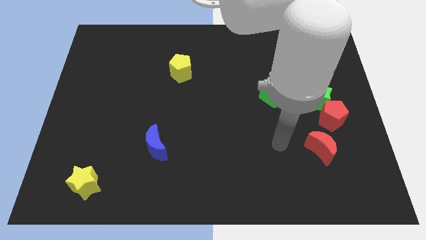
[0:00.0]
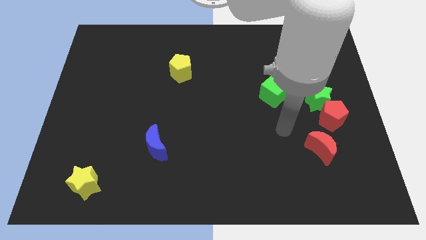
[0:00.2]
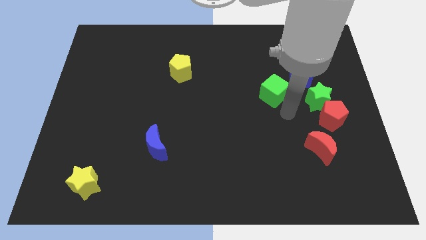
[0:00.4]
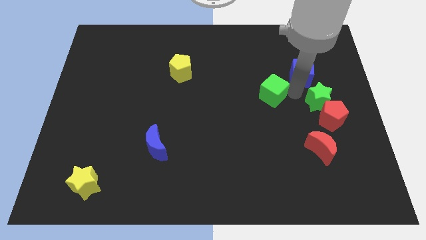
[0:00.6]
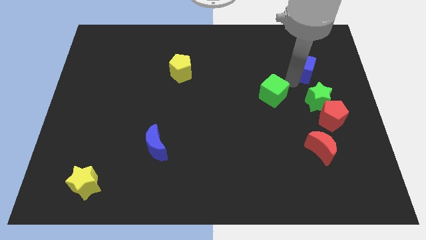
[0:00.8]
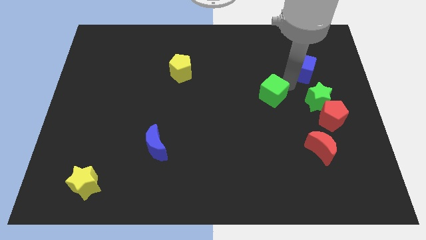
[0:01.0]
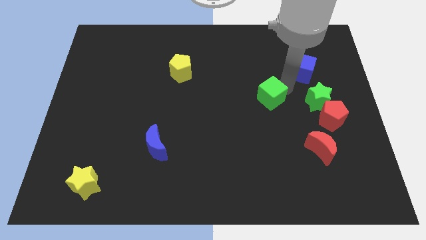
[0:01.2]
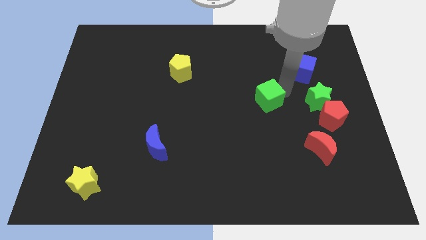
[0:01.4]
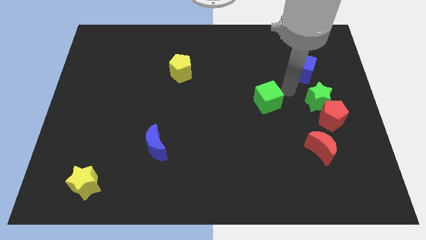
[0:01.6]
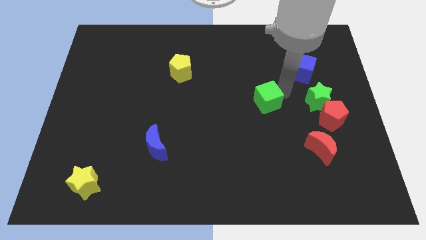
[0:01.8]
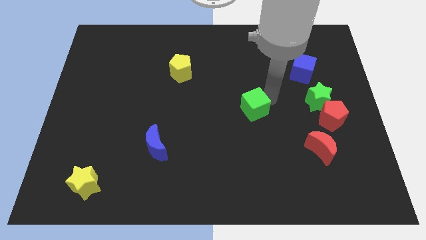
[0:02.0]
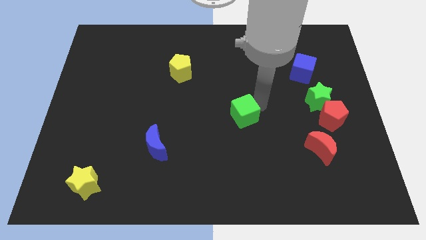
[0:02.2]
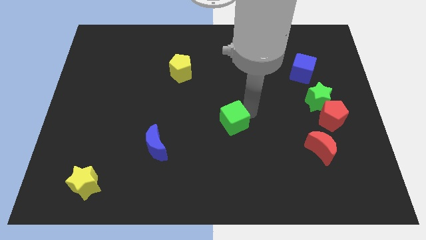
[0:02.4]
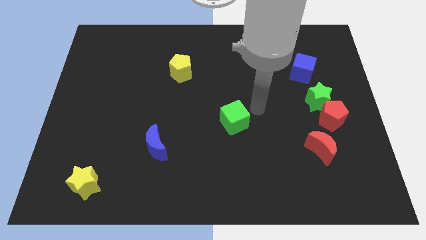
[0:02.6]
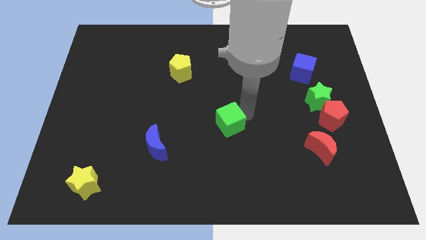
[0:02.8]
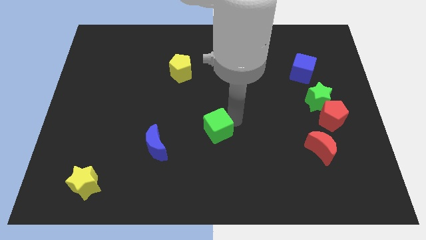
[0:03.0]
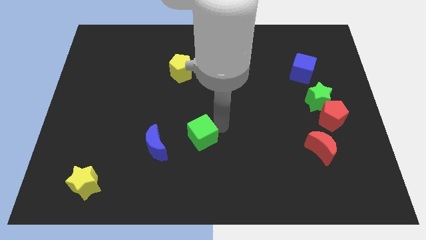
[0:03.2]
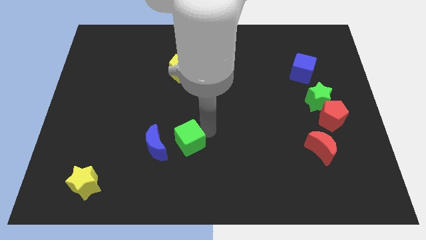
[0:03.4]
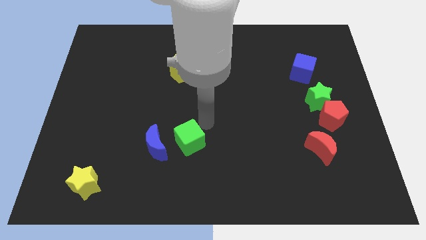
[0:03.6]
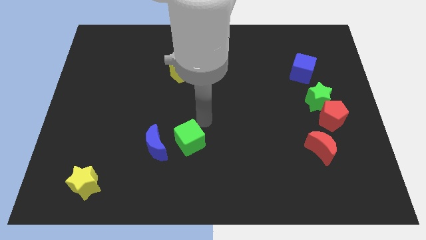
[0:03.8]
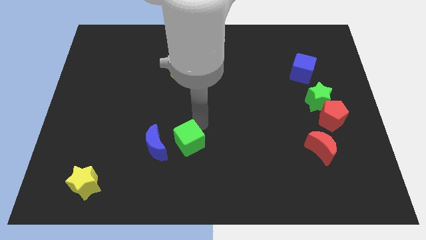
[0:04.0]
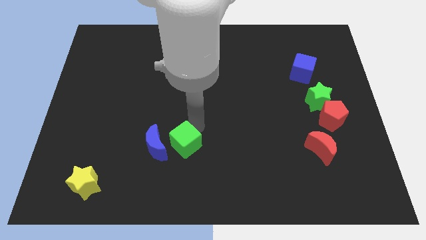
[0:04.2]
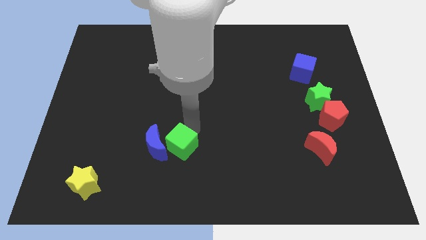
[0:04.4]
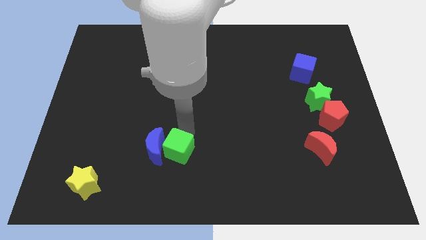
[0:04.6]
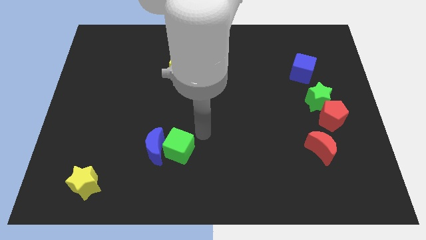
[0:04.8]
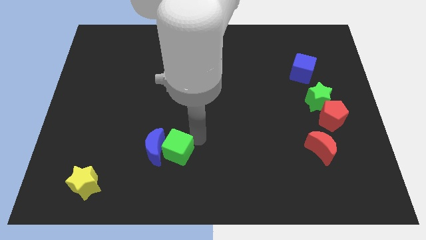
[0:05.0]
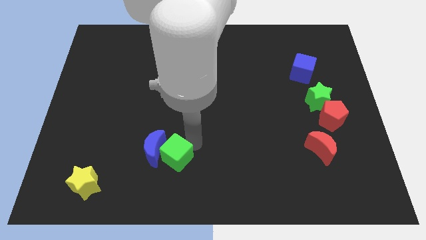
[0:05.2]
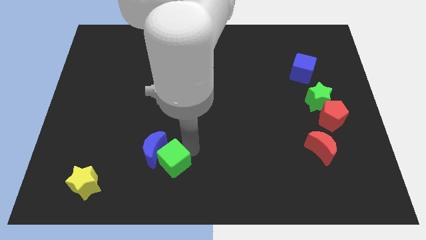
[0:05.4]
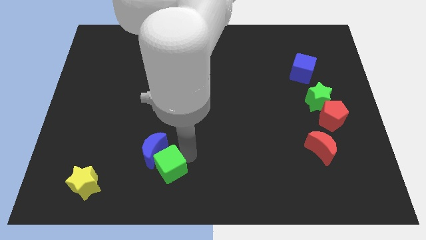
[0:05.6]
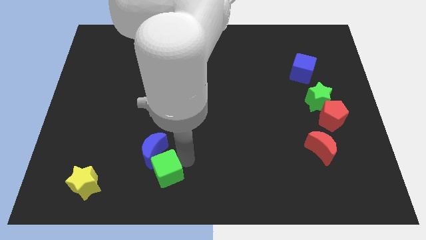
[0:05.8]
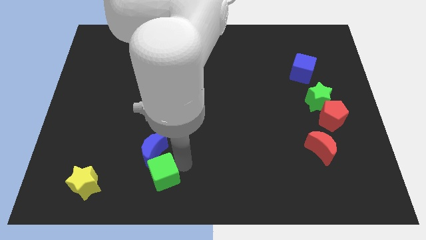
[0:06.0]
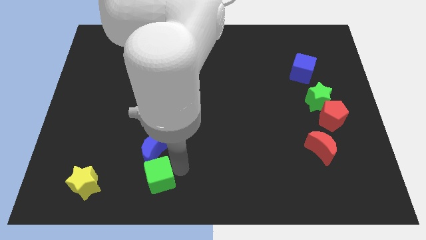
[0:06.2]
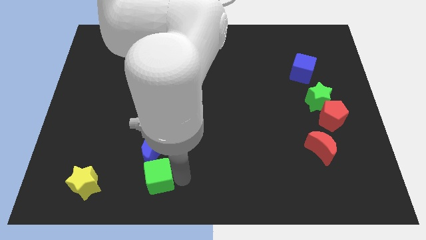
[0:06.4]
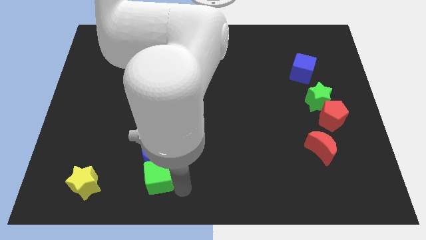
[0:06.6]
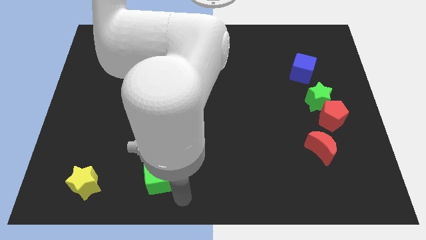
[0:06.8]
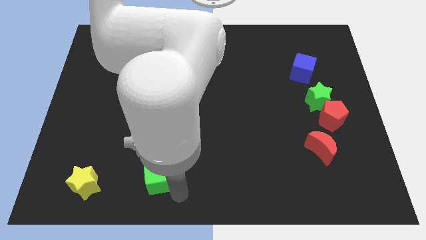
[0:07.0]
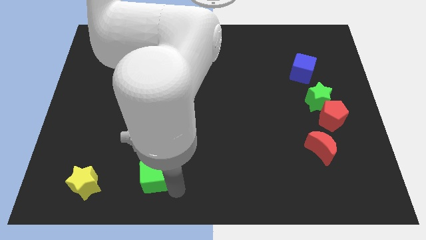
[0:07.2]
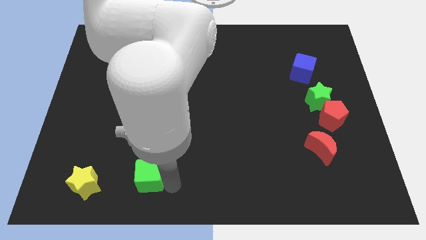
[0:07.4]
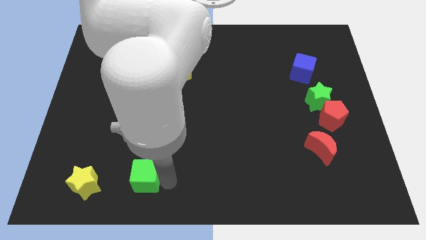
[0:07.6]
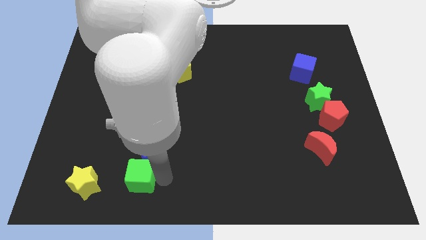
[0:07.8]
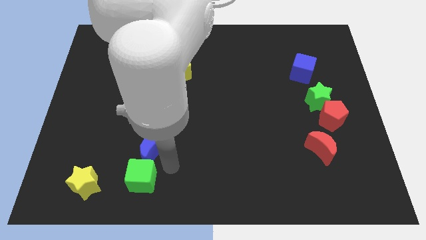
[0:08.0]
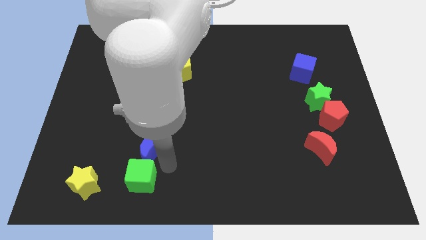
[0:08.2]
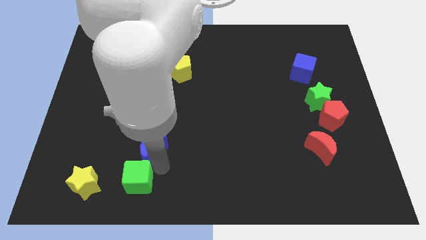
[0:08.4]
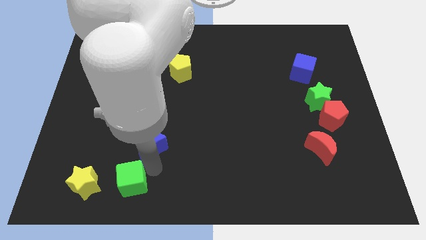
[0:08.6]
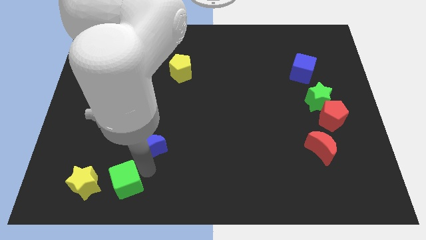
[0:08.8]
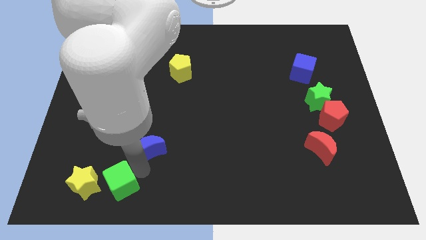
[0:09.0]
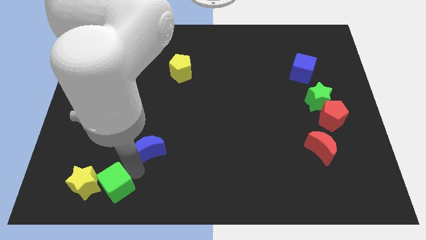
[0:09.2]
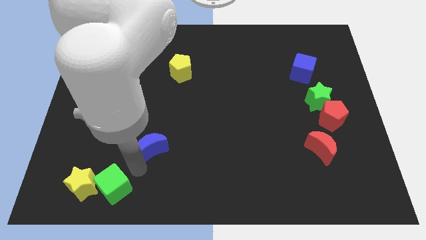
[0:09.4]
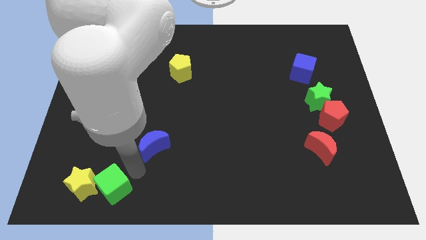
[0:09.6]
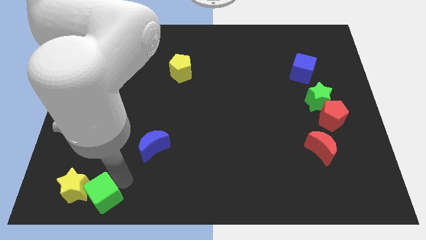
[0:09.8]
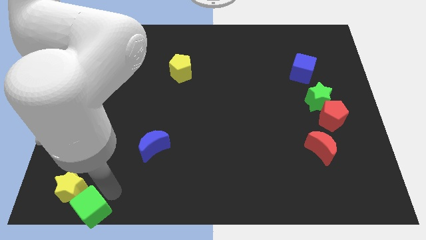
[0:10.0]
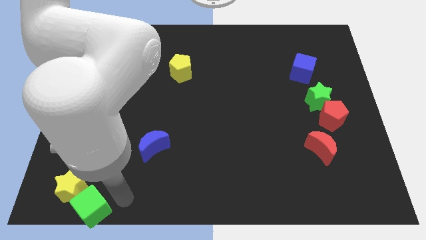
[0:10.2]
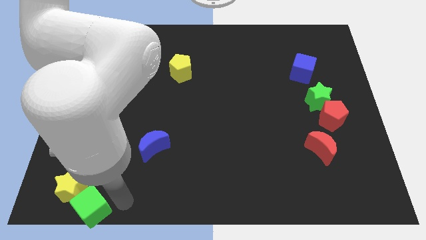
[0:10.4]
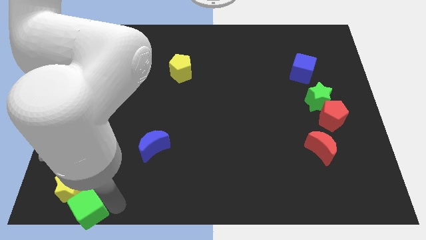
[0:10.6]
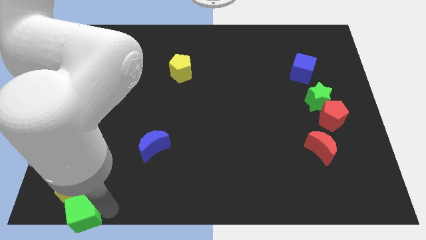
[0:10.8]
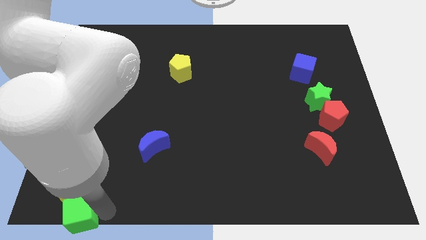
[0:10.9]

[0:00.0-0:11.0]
put the green cube to the bottom left

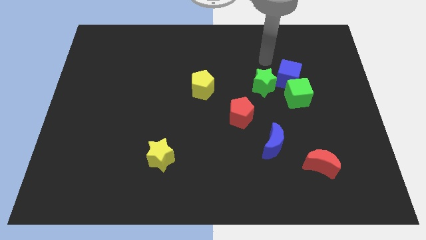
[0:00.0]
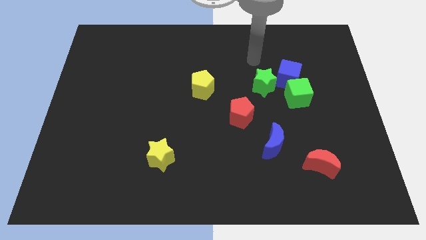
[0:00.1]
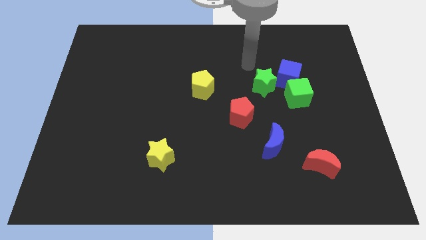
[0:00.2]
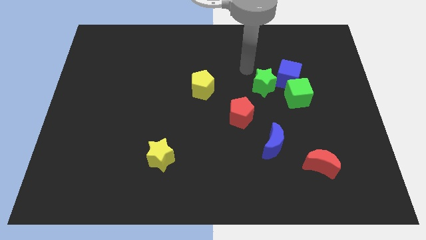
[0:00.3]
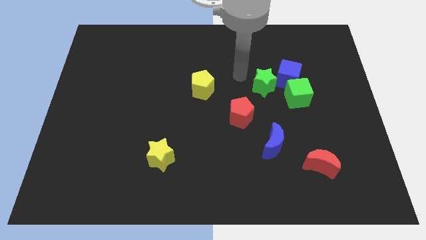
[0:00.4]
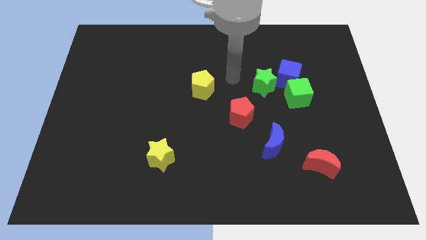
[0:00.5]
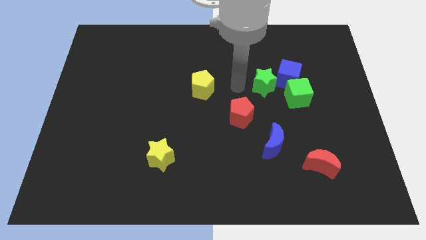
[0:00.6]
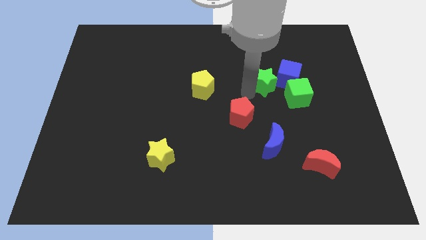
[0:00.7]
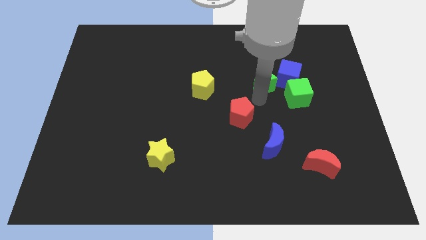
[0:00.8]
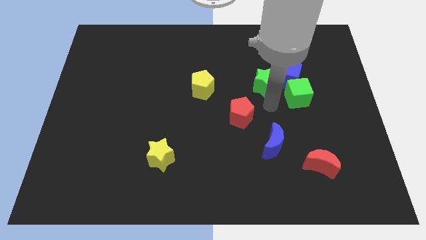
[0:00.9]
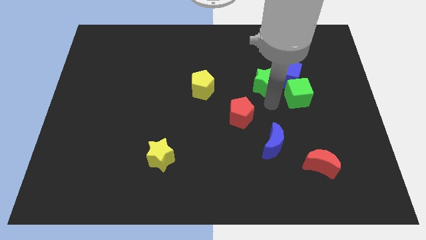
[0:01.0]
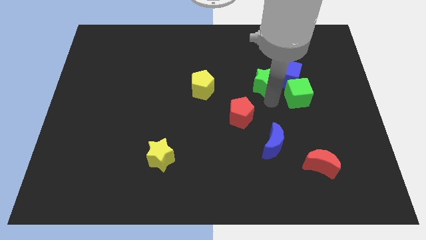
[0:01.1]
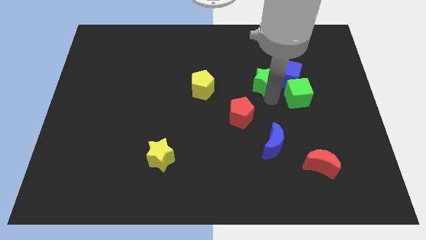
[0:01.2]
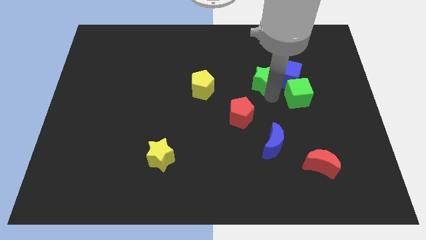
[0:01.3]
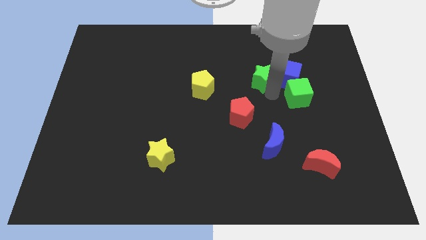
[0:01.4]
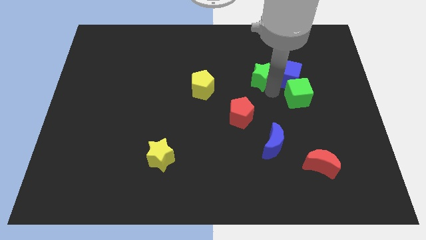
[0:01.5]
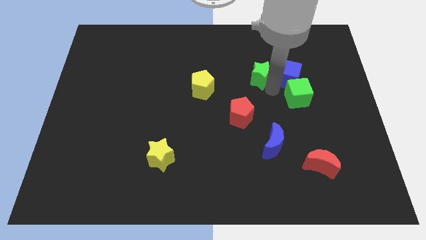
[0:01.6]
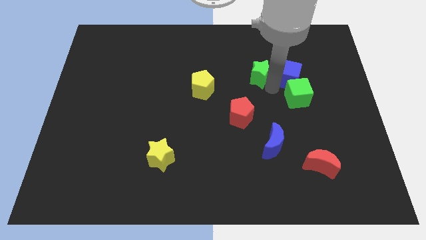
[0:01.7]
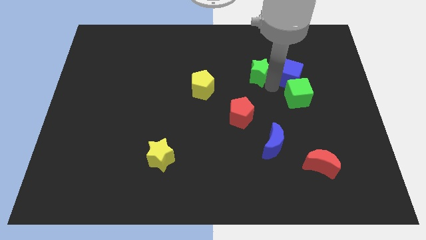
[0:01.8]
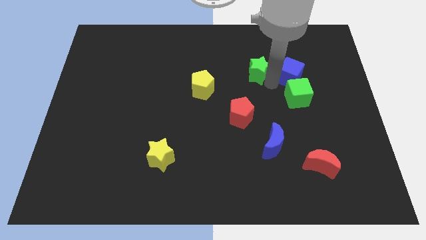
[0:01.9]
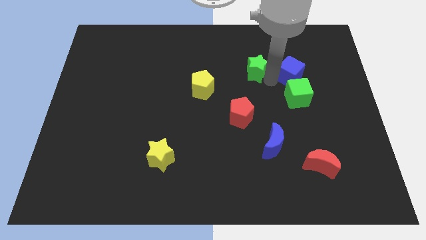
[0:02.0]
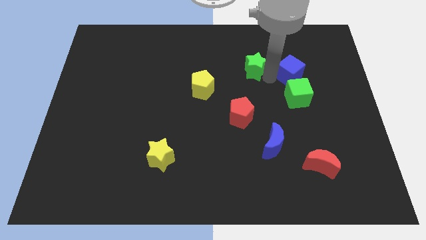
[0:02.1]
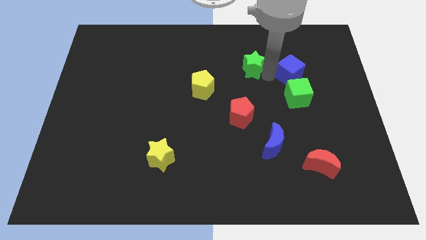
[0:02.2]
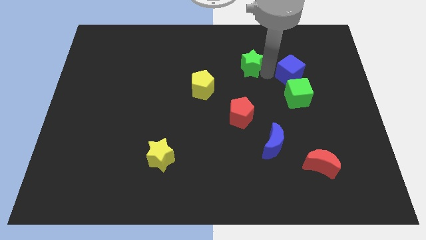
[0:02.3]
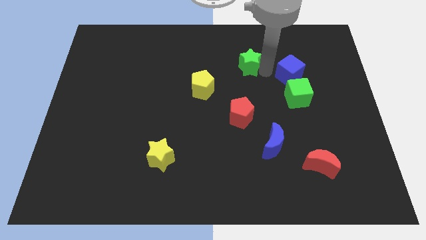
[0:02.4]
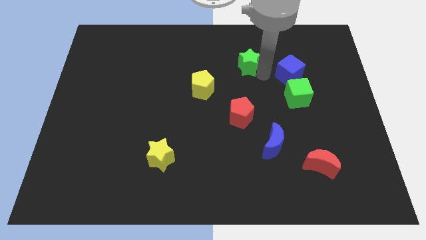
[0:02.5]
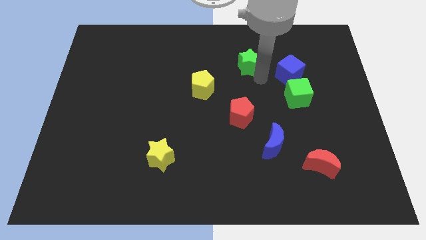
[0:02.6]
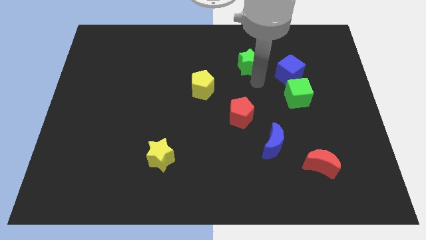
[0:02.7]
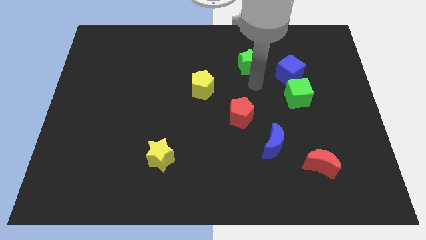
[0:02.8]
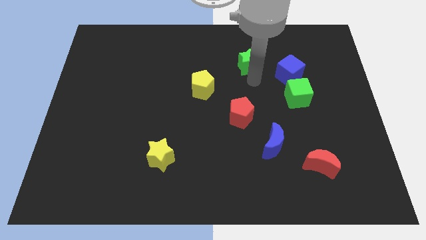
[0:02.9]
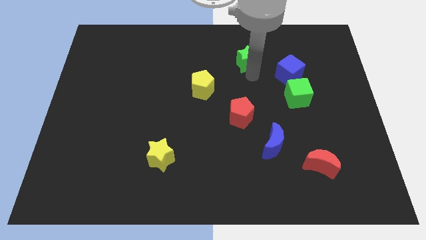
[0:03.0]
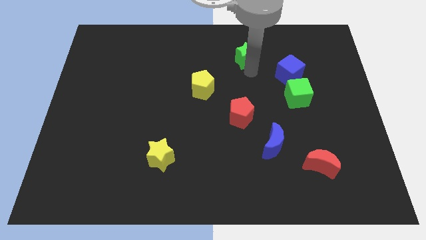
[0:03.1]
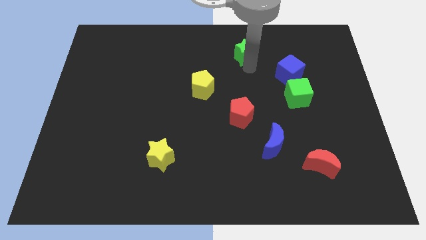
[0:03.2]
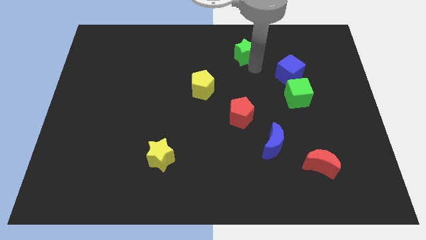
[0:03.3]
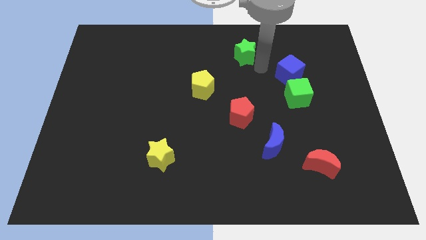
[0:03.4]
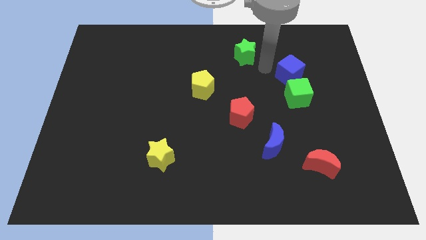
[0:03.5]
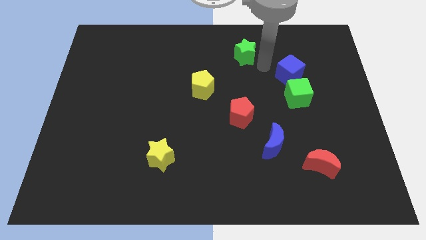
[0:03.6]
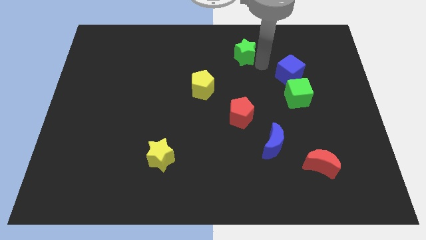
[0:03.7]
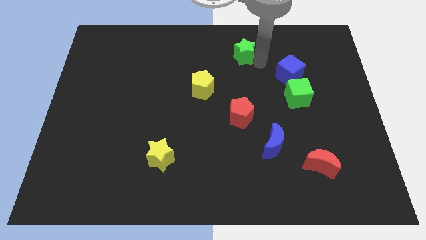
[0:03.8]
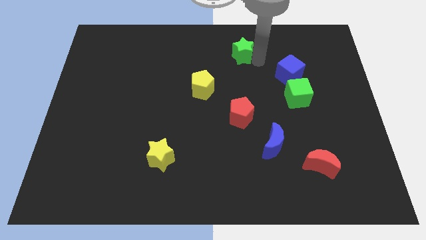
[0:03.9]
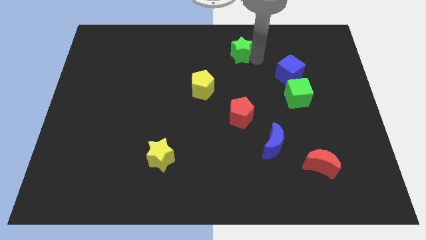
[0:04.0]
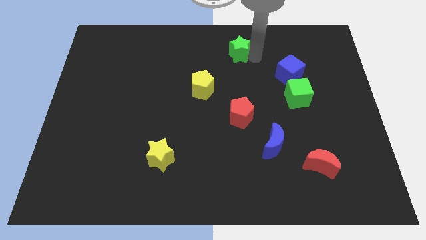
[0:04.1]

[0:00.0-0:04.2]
move the green star to the top side
